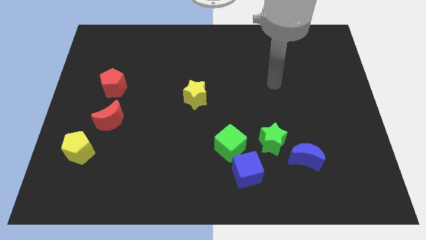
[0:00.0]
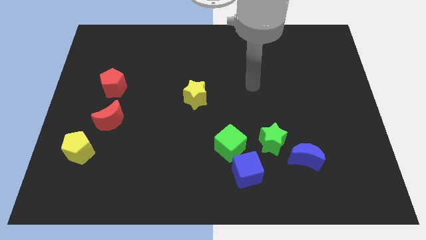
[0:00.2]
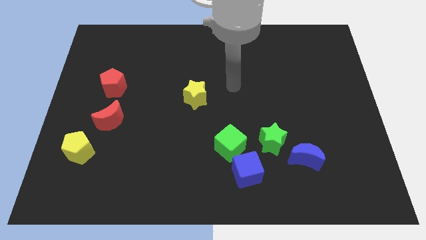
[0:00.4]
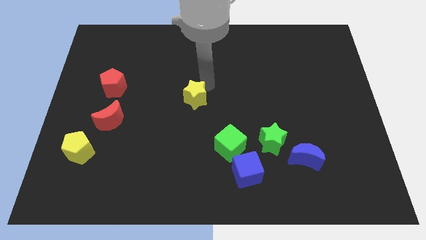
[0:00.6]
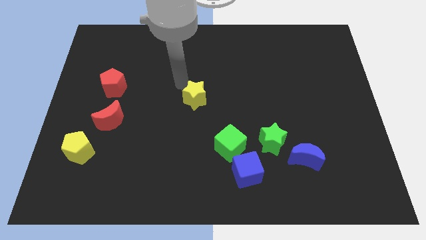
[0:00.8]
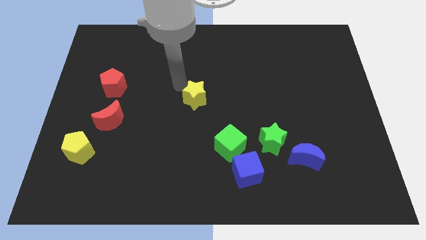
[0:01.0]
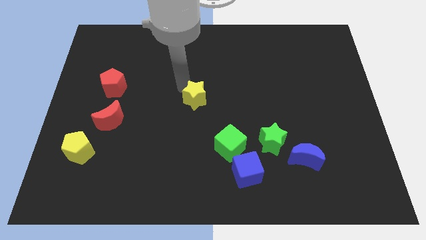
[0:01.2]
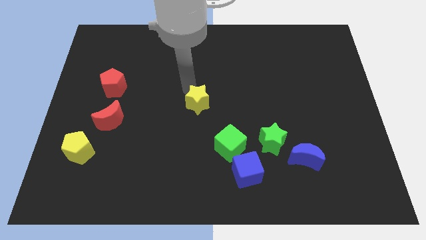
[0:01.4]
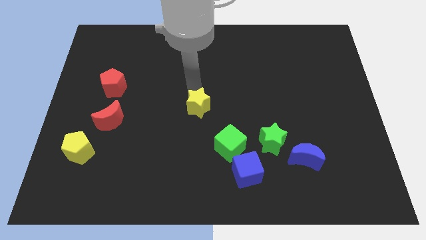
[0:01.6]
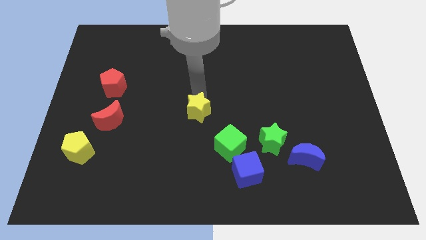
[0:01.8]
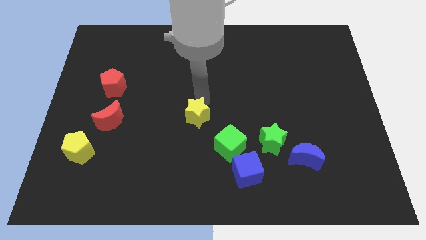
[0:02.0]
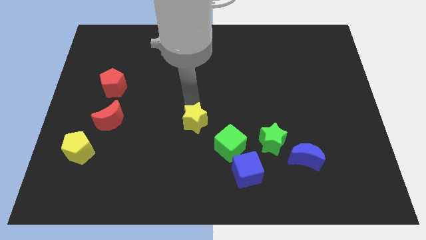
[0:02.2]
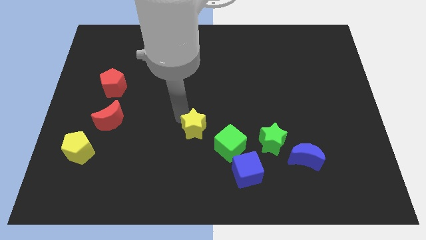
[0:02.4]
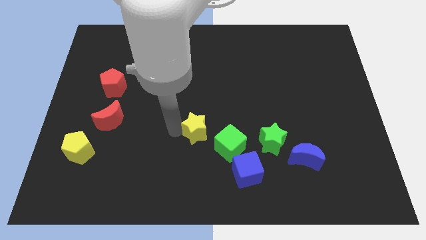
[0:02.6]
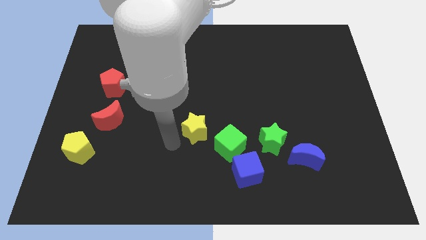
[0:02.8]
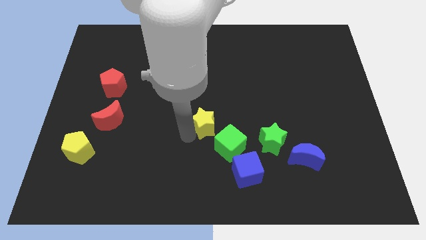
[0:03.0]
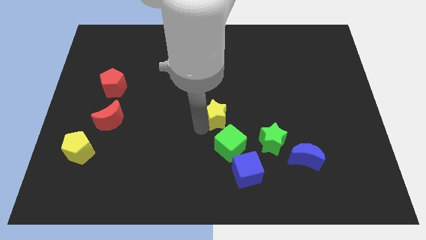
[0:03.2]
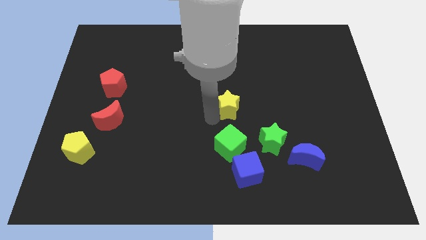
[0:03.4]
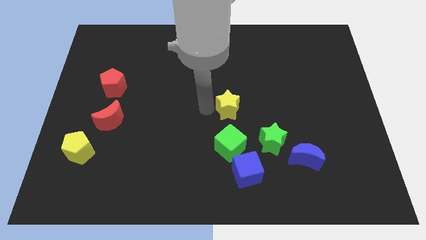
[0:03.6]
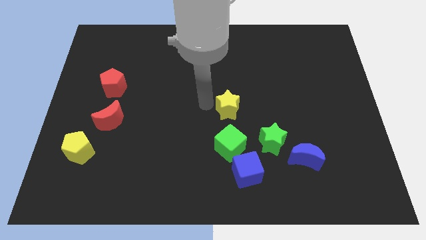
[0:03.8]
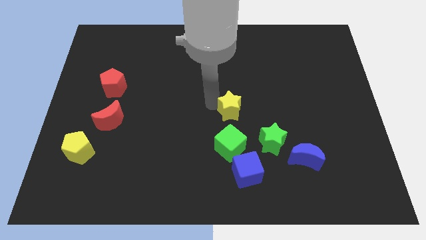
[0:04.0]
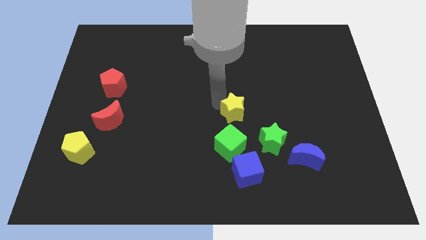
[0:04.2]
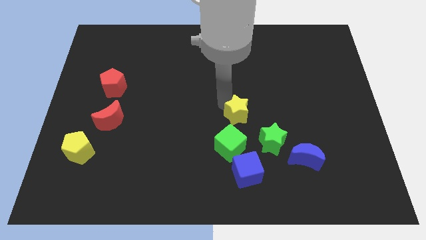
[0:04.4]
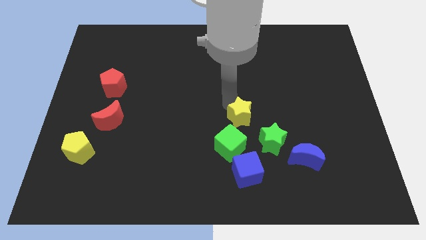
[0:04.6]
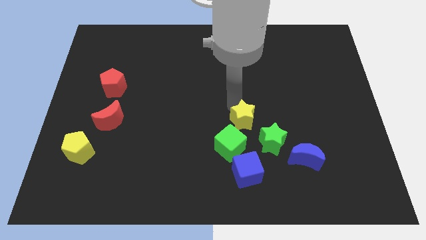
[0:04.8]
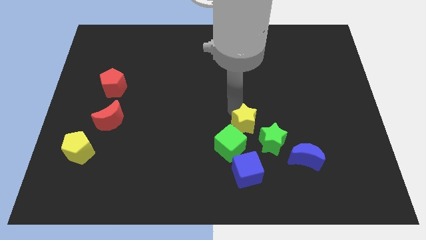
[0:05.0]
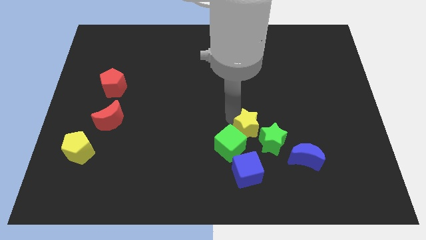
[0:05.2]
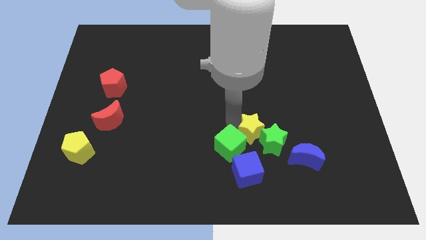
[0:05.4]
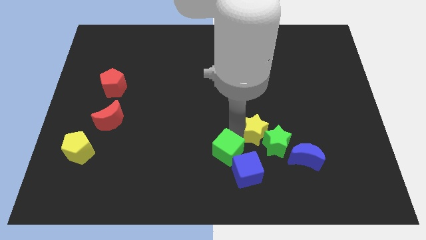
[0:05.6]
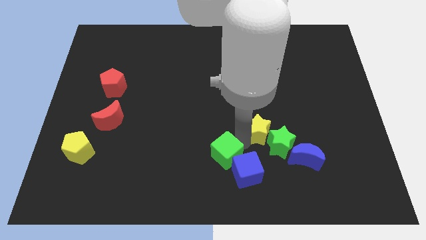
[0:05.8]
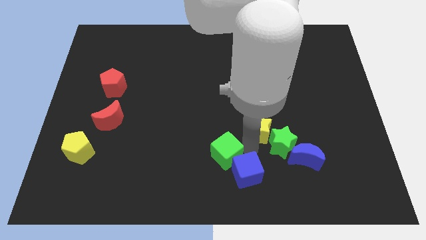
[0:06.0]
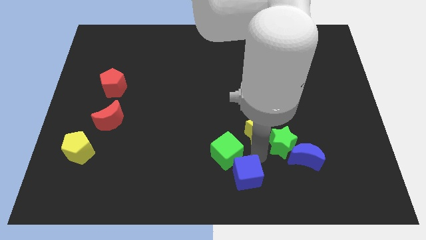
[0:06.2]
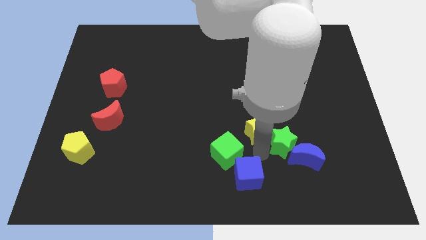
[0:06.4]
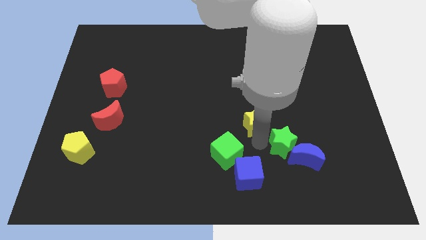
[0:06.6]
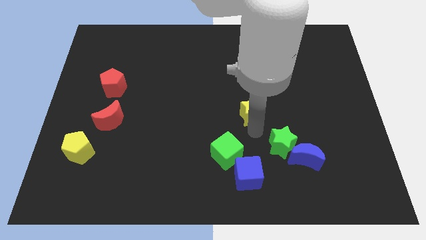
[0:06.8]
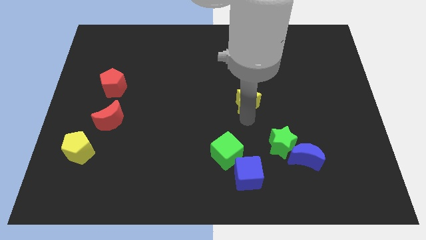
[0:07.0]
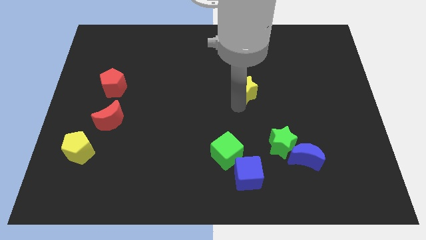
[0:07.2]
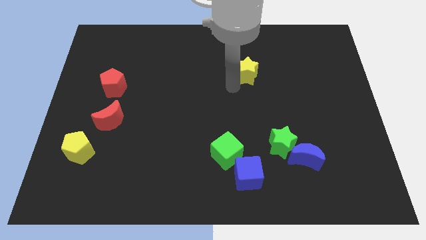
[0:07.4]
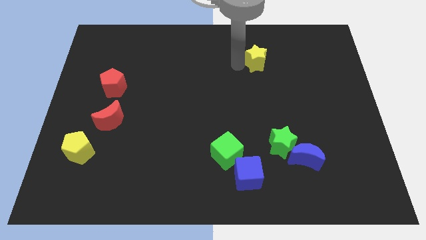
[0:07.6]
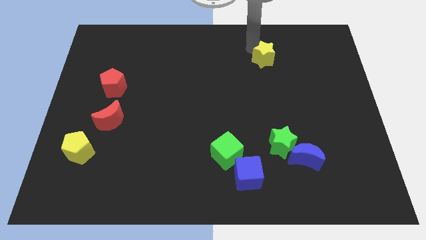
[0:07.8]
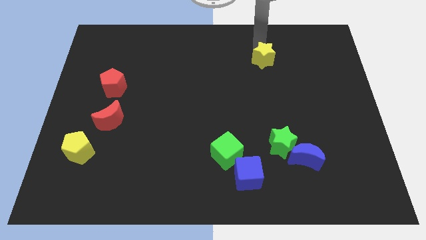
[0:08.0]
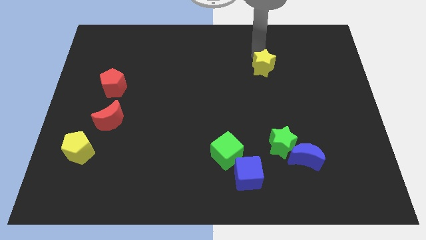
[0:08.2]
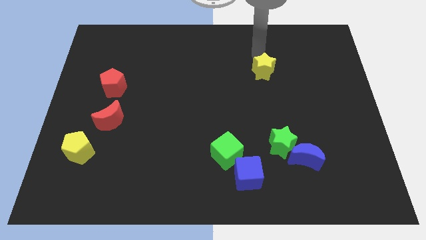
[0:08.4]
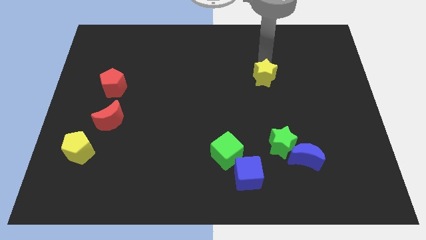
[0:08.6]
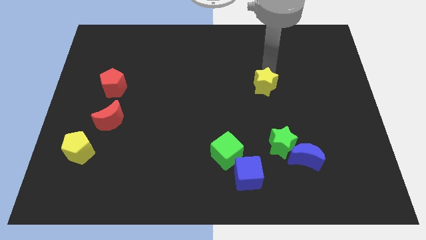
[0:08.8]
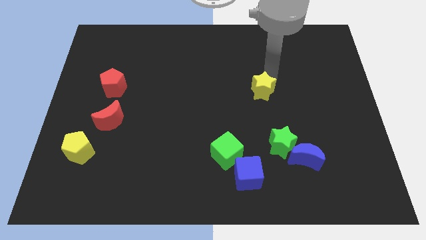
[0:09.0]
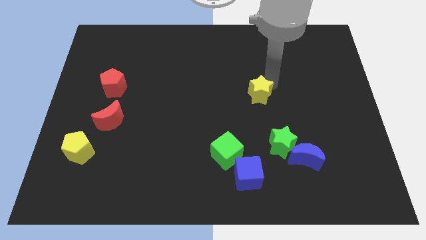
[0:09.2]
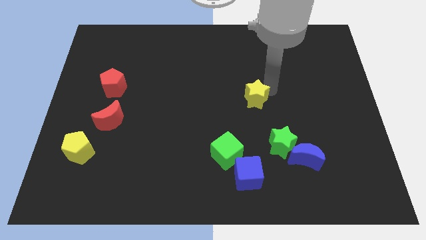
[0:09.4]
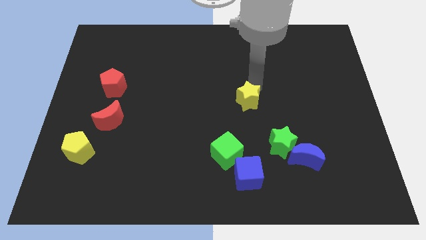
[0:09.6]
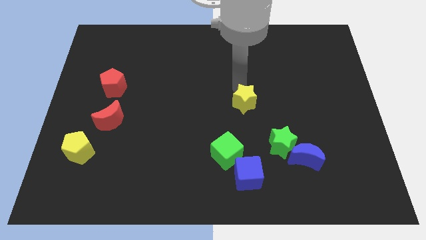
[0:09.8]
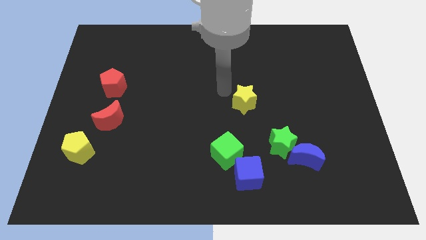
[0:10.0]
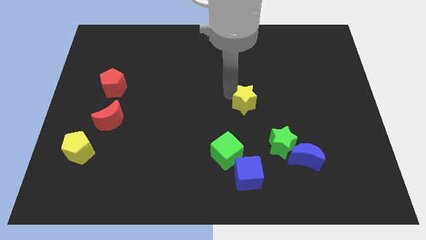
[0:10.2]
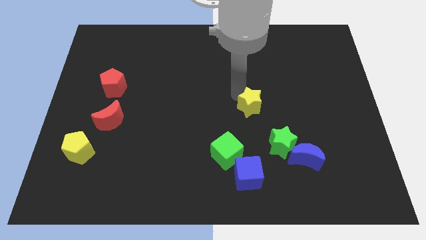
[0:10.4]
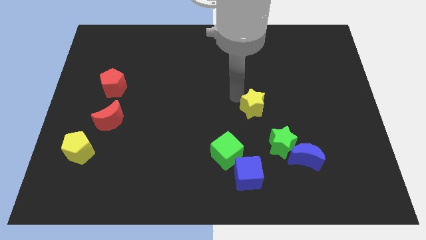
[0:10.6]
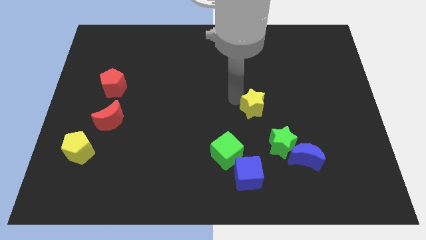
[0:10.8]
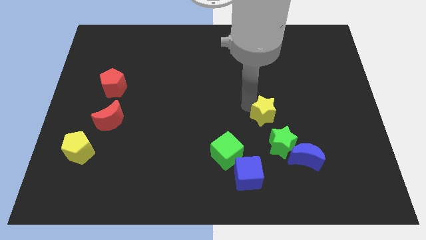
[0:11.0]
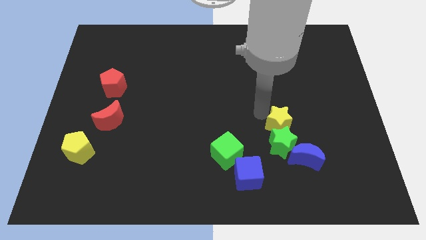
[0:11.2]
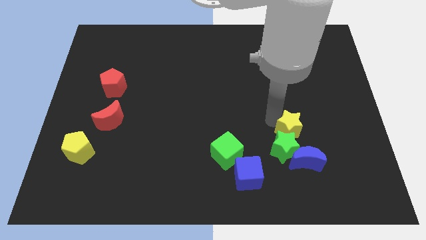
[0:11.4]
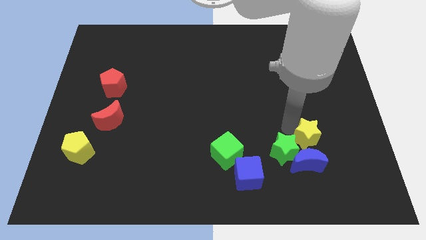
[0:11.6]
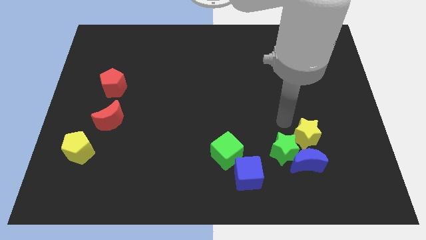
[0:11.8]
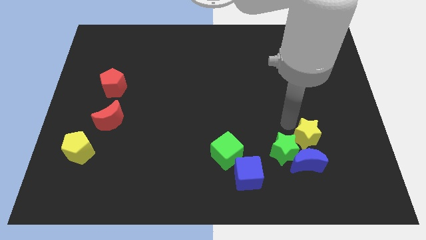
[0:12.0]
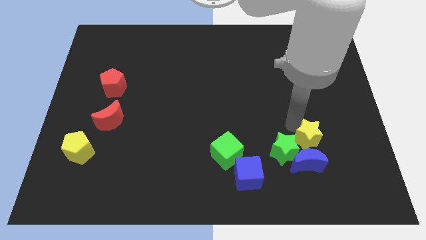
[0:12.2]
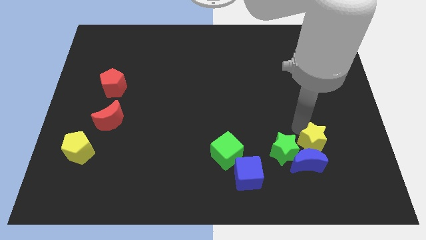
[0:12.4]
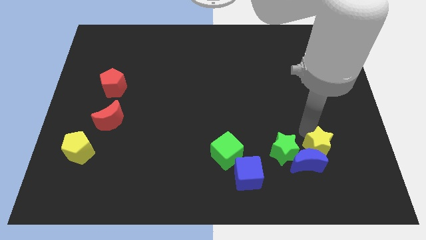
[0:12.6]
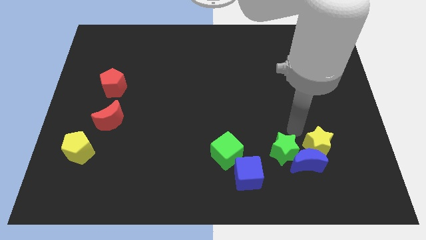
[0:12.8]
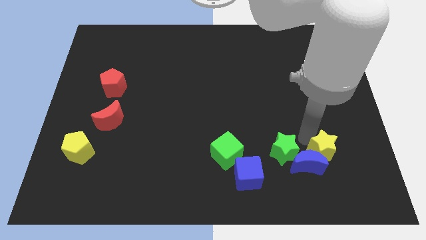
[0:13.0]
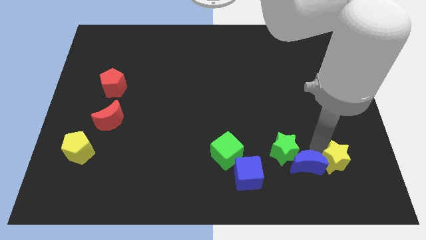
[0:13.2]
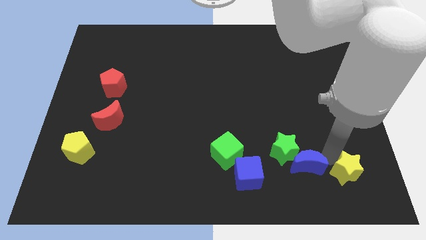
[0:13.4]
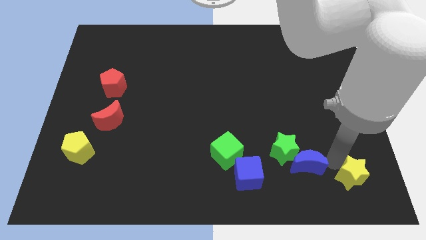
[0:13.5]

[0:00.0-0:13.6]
move the yellow star to the bottom right corner
